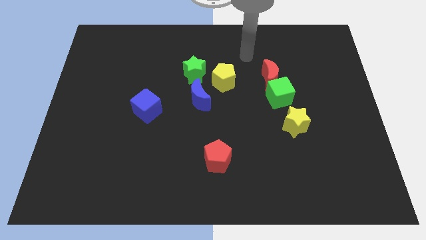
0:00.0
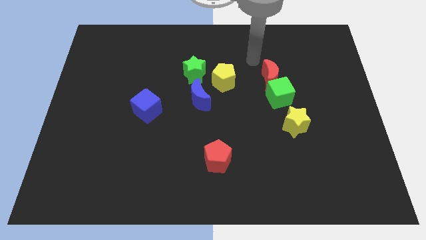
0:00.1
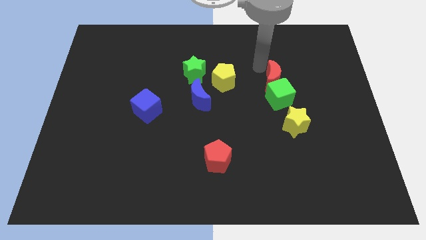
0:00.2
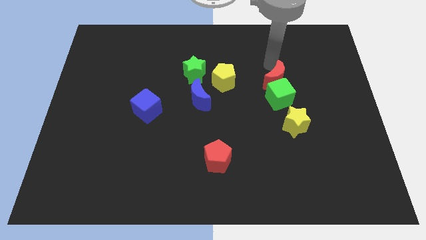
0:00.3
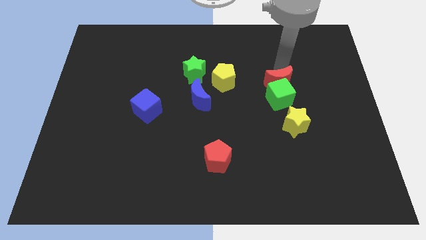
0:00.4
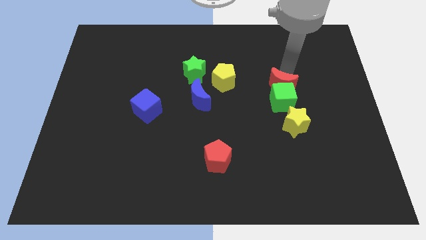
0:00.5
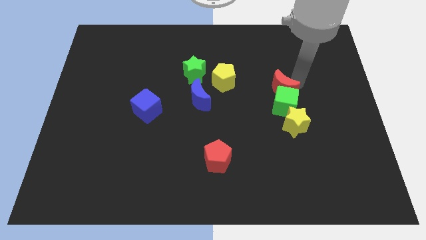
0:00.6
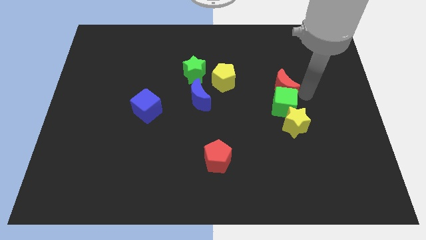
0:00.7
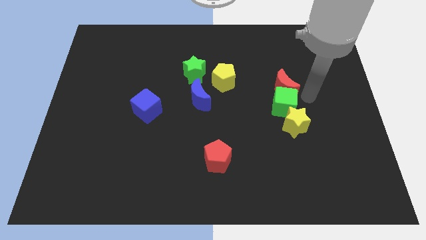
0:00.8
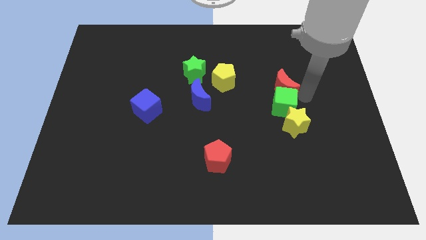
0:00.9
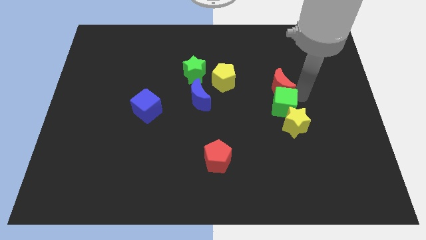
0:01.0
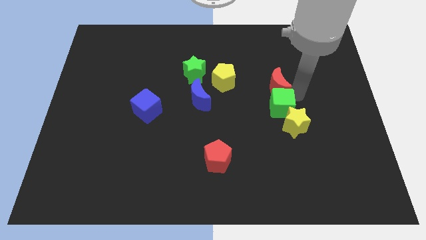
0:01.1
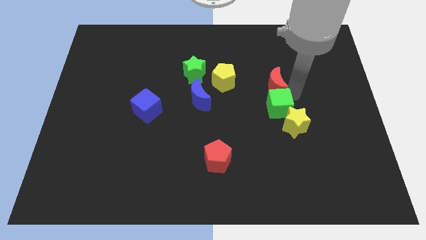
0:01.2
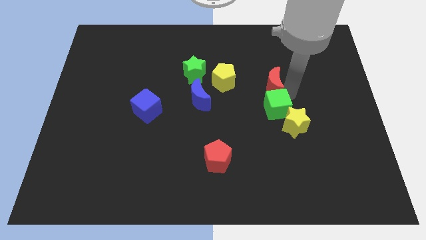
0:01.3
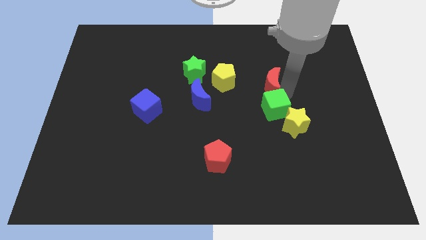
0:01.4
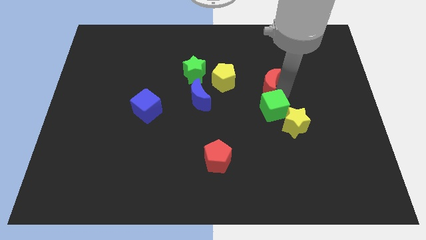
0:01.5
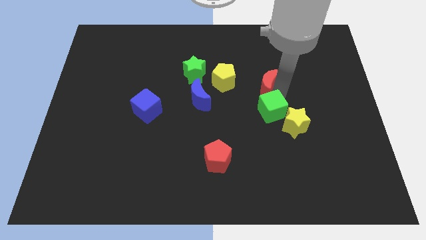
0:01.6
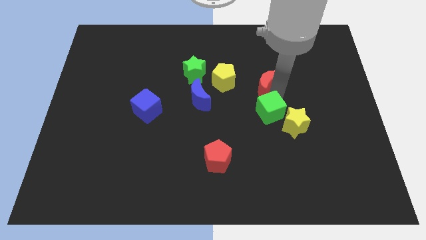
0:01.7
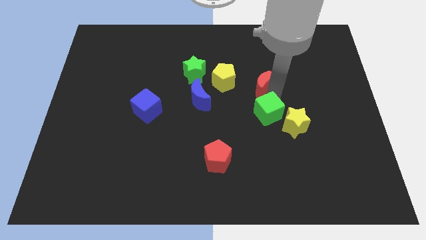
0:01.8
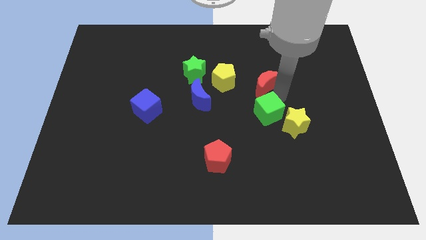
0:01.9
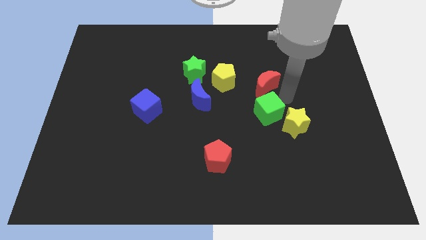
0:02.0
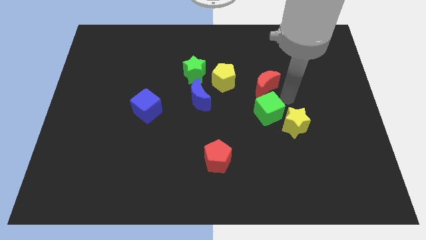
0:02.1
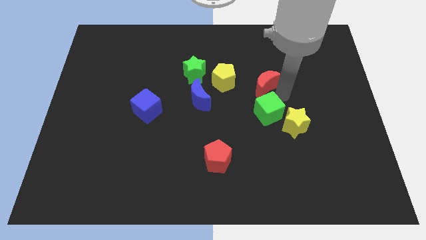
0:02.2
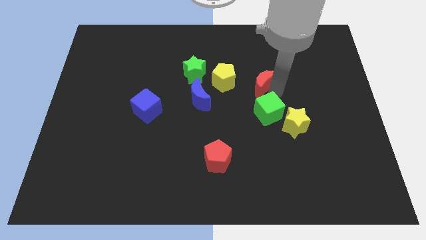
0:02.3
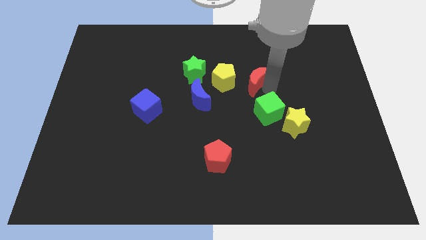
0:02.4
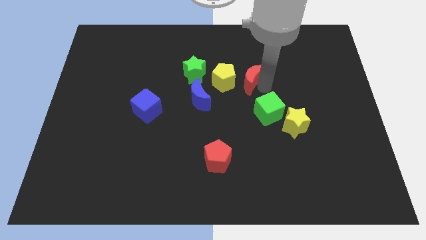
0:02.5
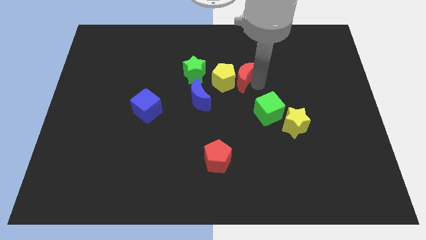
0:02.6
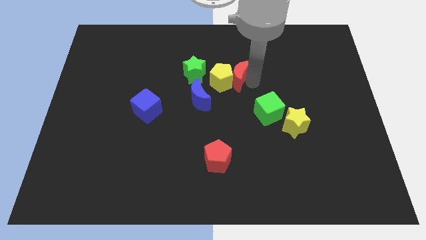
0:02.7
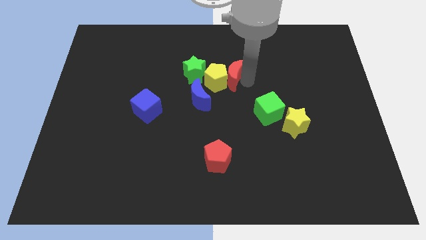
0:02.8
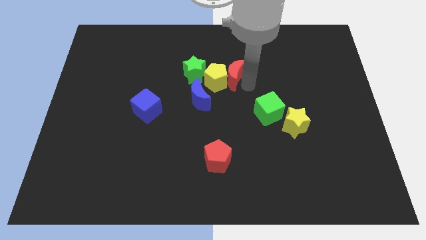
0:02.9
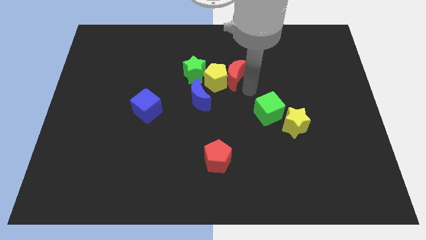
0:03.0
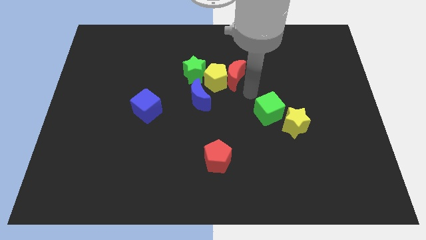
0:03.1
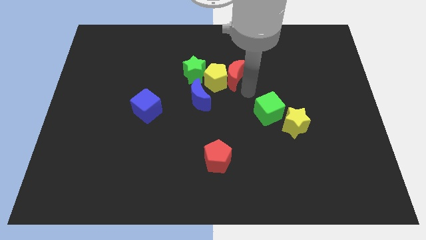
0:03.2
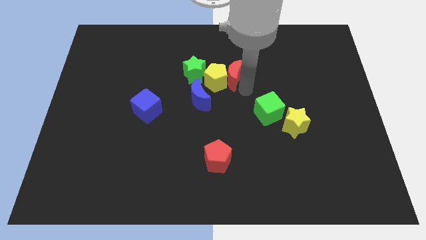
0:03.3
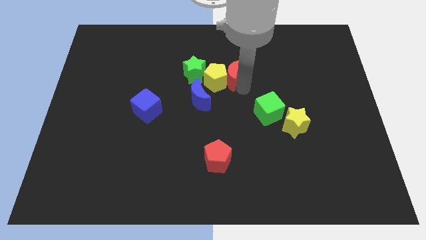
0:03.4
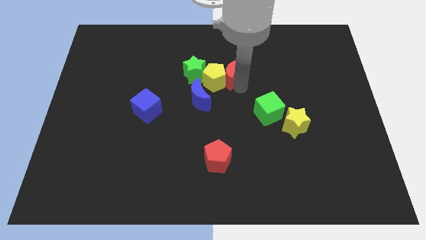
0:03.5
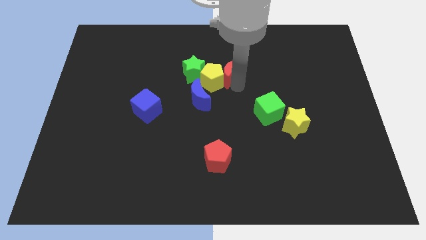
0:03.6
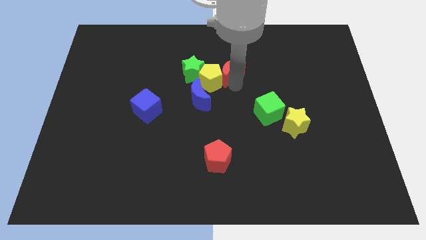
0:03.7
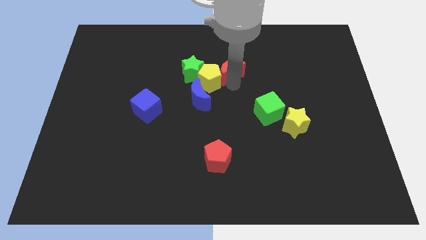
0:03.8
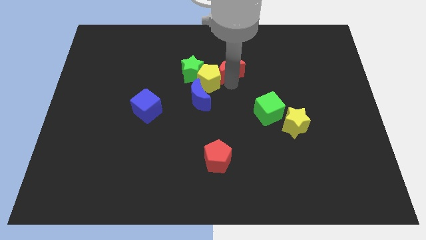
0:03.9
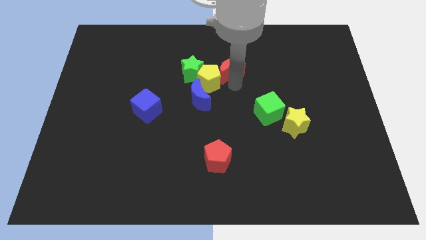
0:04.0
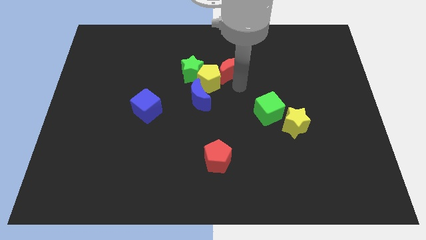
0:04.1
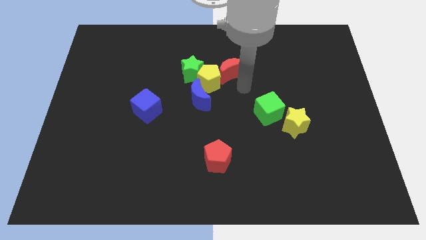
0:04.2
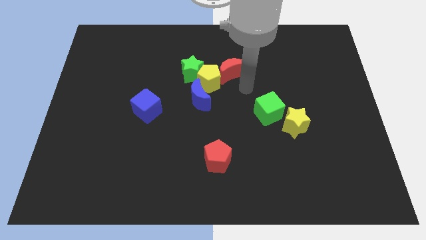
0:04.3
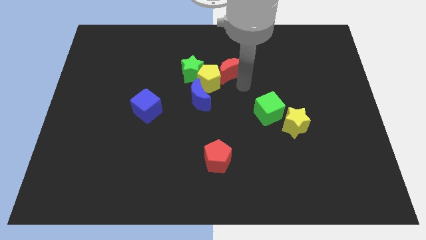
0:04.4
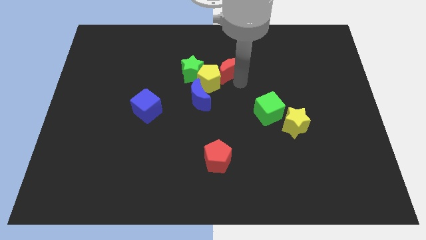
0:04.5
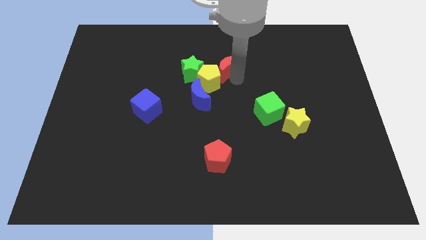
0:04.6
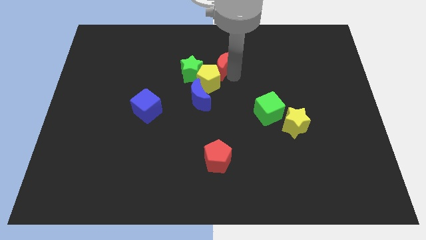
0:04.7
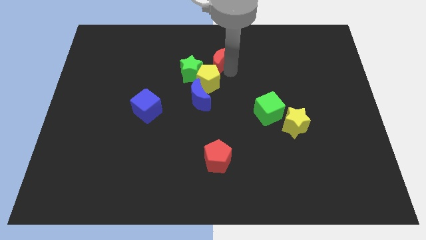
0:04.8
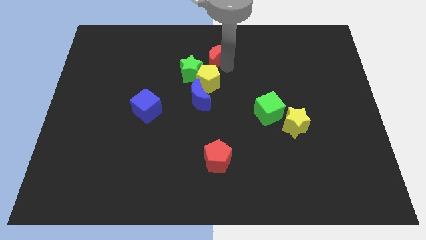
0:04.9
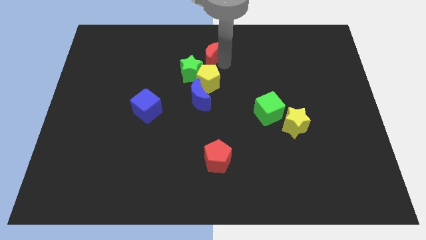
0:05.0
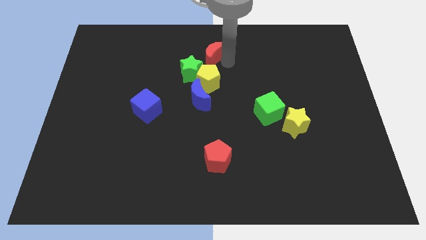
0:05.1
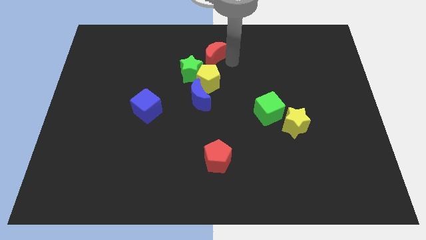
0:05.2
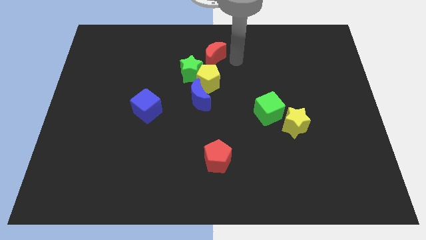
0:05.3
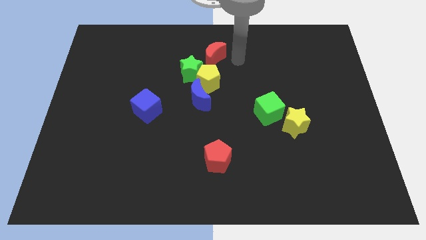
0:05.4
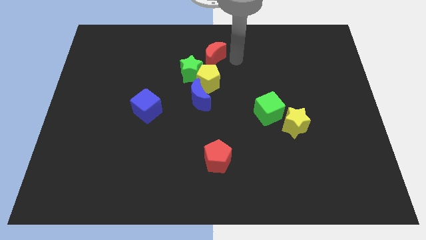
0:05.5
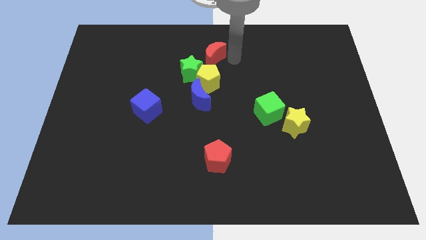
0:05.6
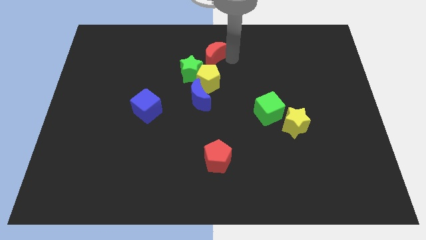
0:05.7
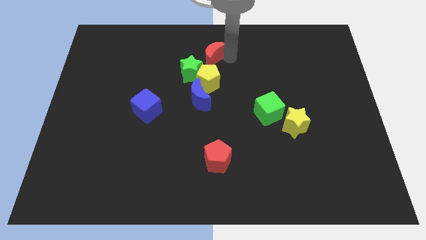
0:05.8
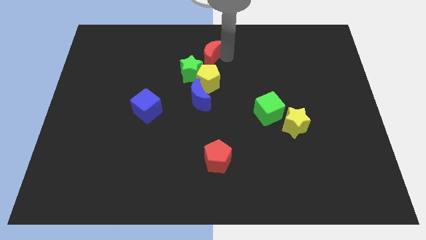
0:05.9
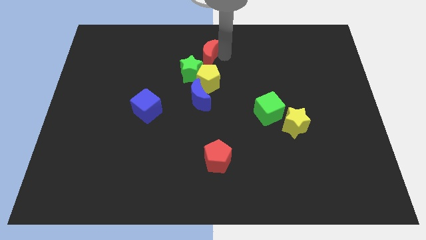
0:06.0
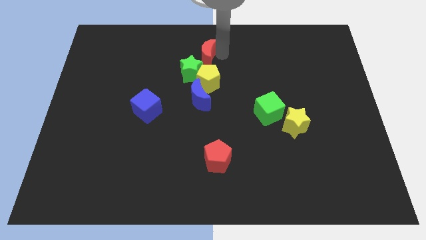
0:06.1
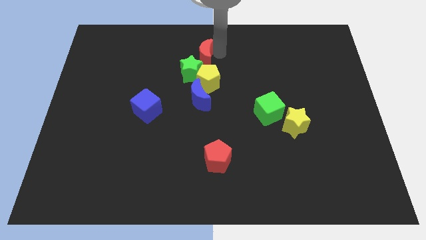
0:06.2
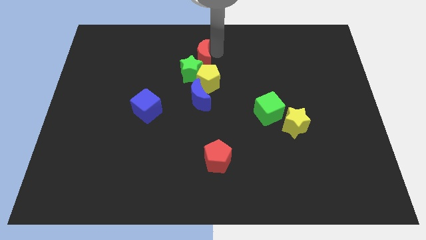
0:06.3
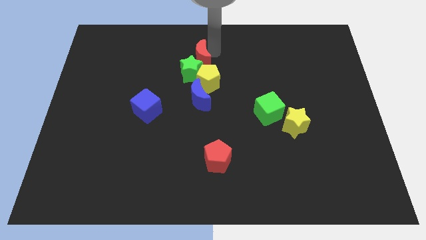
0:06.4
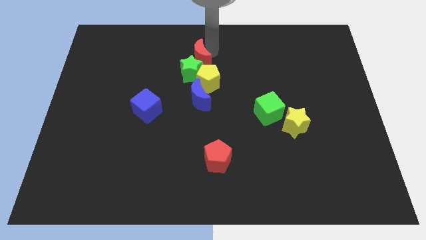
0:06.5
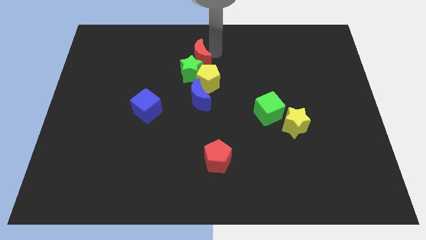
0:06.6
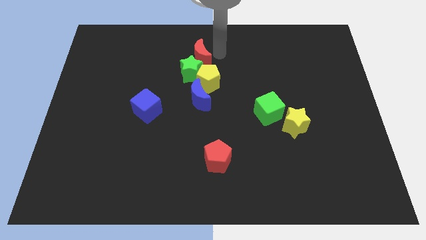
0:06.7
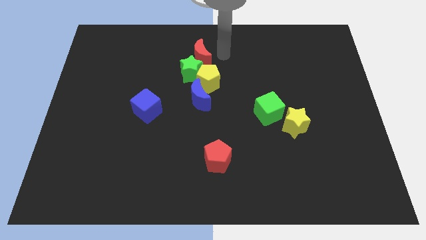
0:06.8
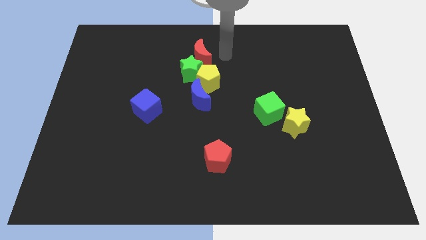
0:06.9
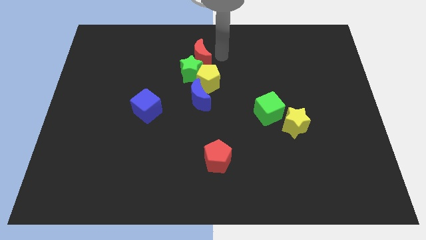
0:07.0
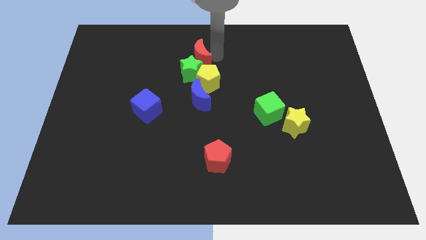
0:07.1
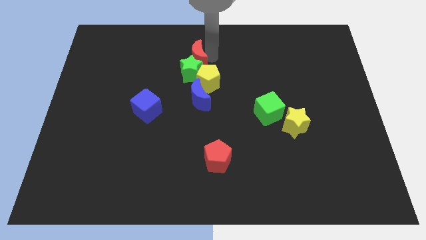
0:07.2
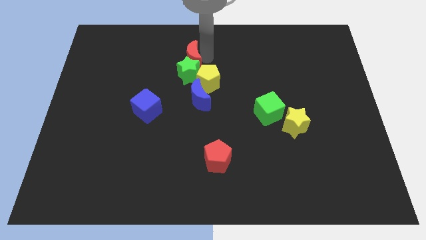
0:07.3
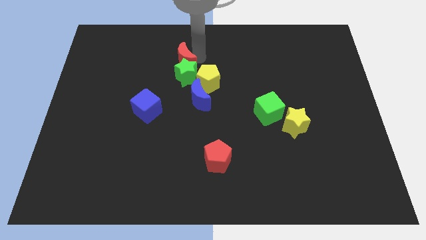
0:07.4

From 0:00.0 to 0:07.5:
push the red moon left

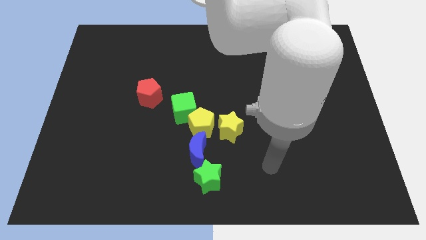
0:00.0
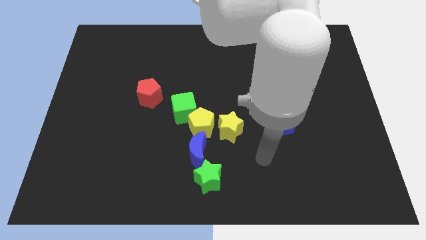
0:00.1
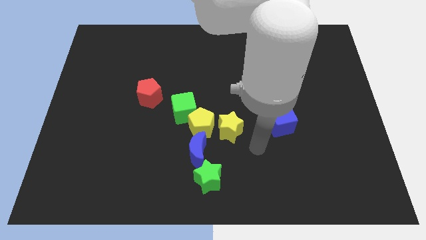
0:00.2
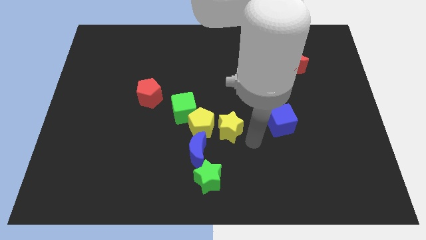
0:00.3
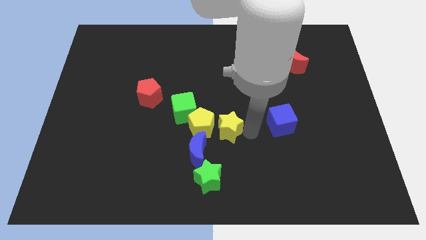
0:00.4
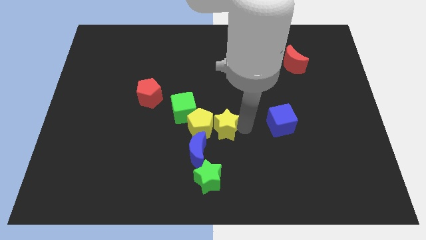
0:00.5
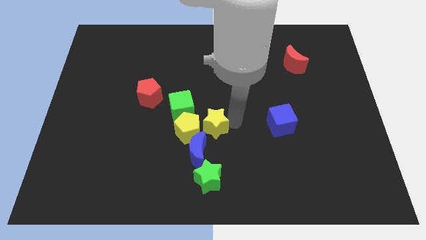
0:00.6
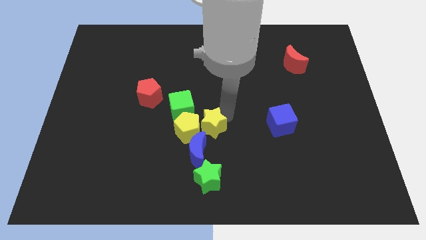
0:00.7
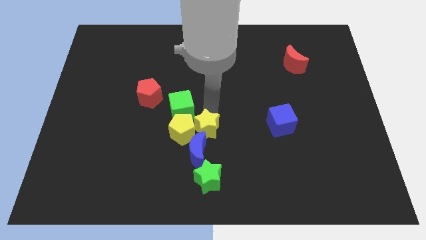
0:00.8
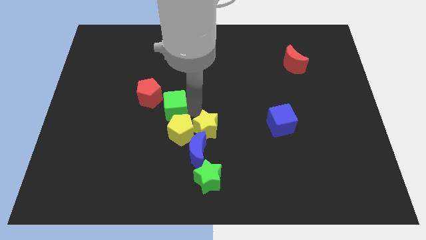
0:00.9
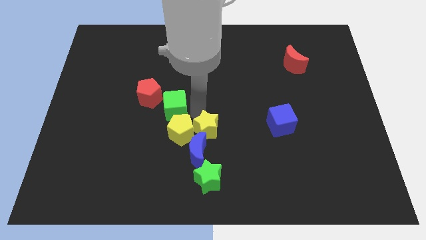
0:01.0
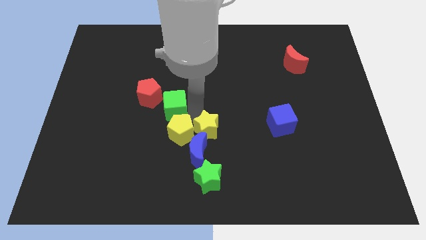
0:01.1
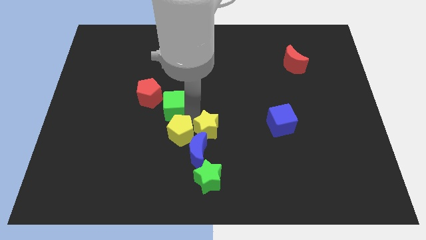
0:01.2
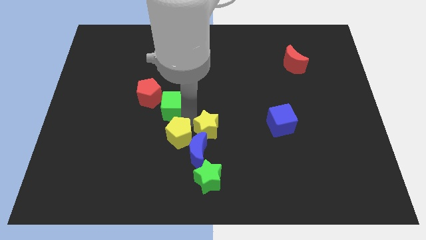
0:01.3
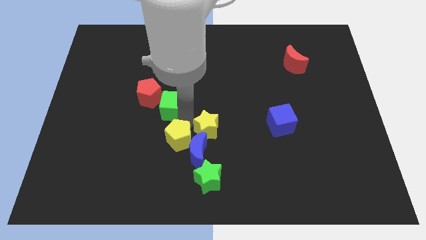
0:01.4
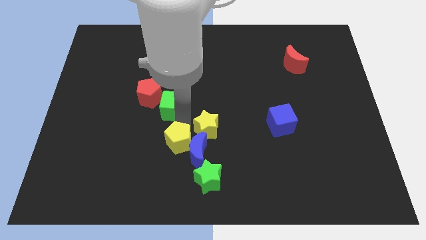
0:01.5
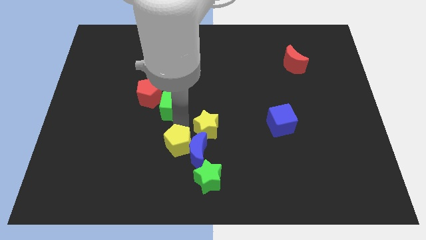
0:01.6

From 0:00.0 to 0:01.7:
move the yellow pentagon down and left diagonally a bit
